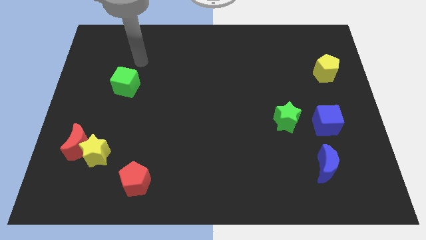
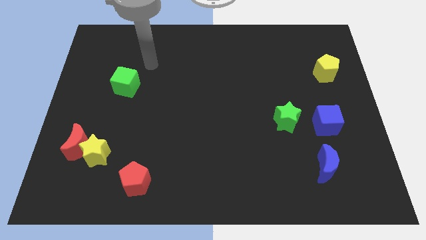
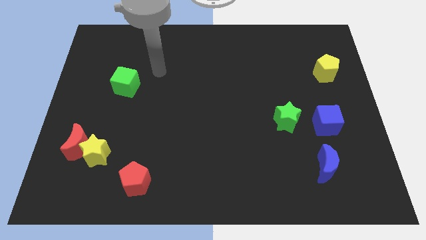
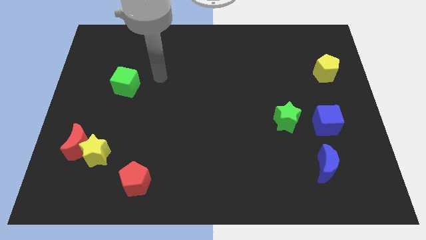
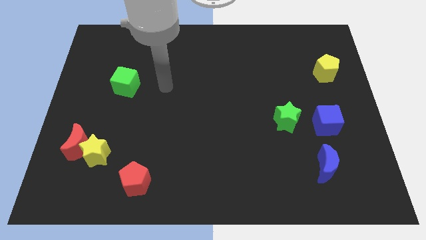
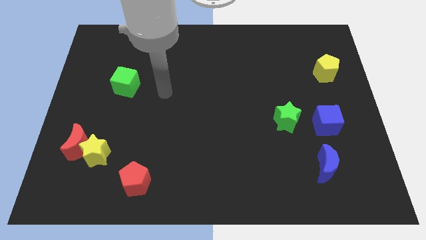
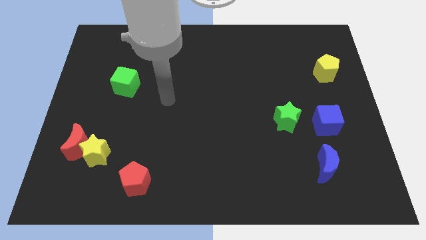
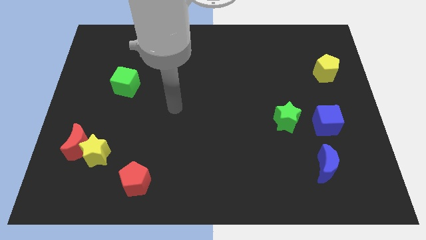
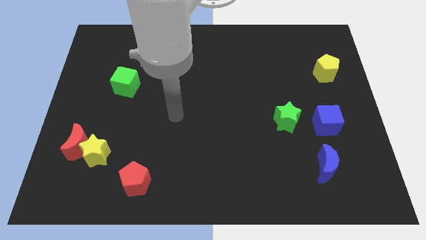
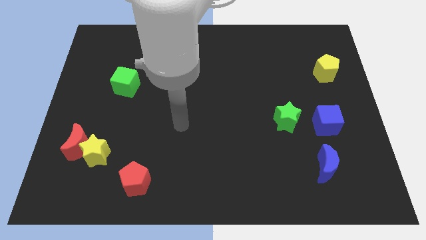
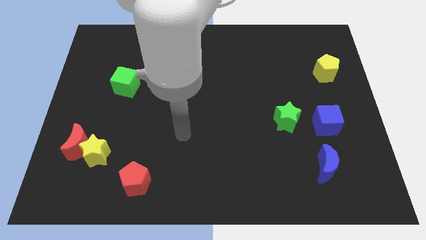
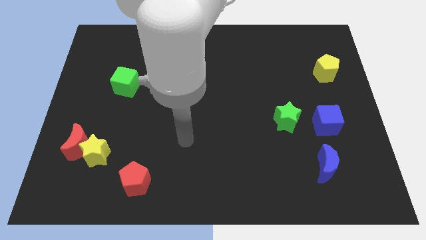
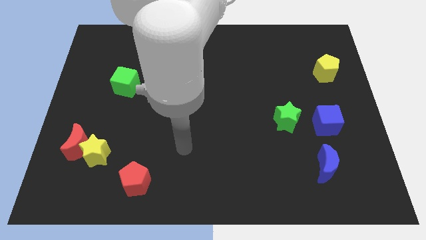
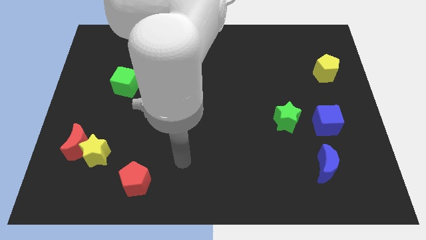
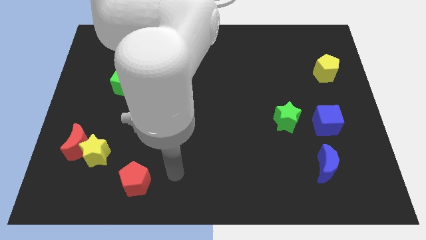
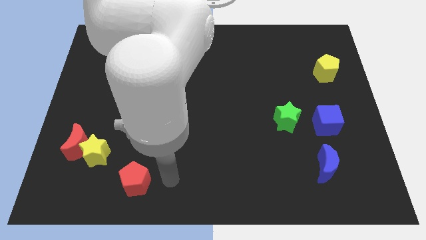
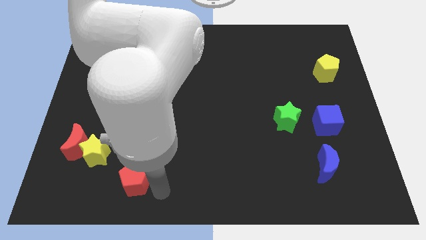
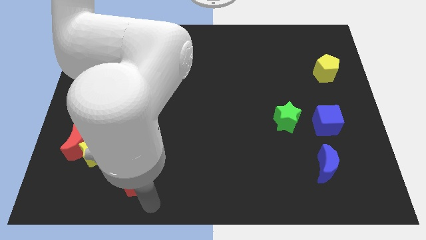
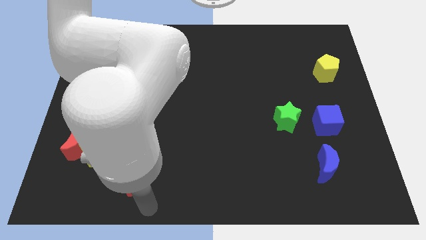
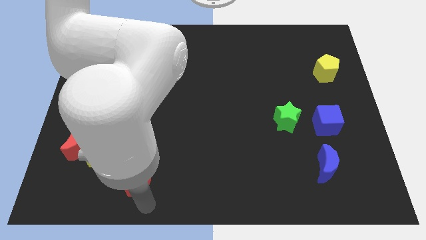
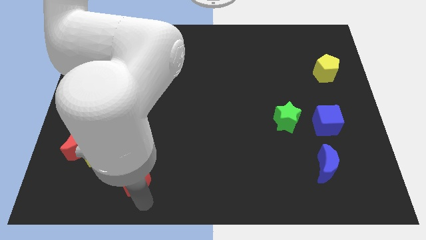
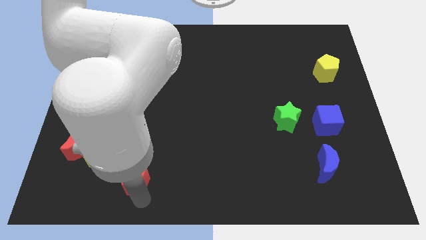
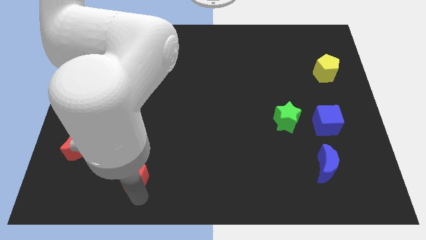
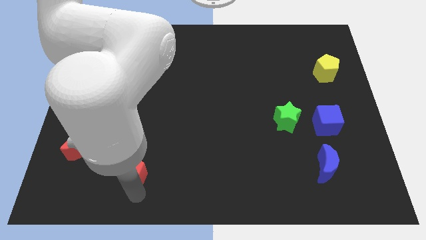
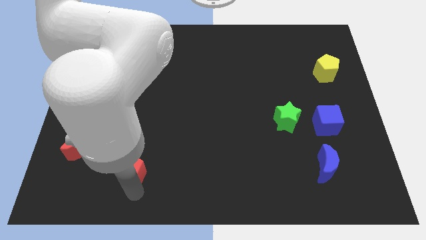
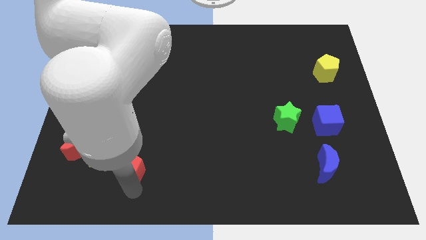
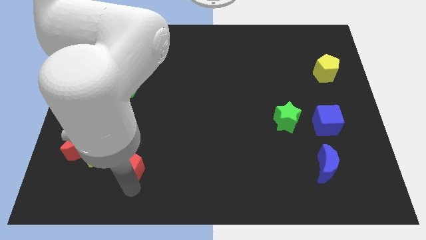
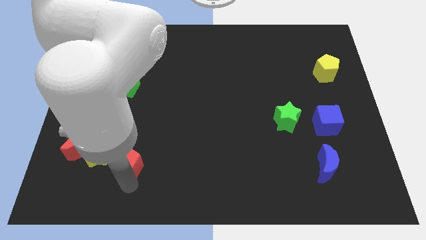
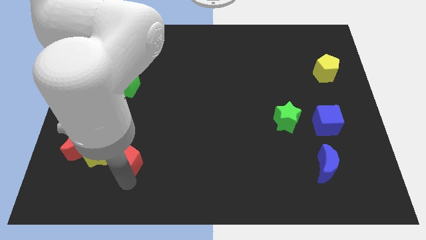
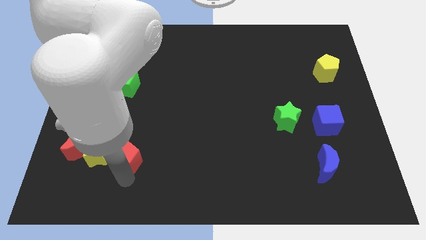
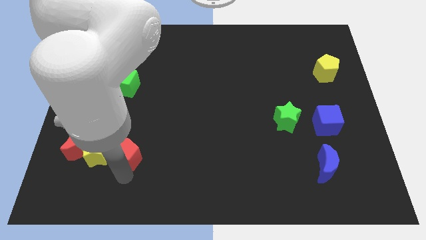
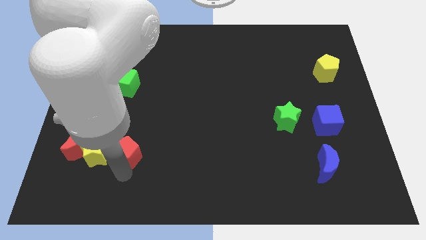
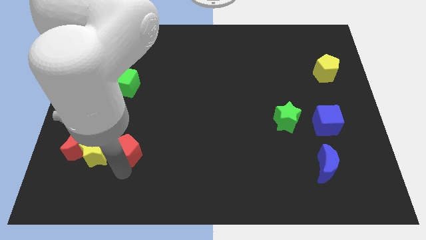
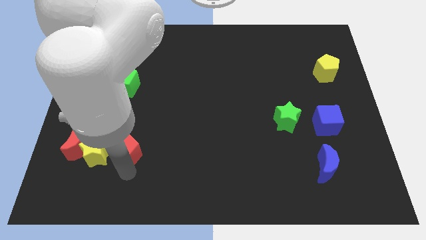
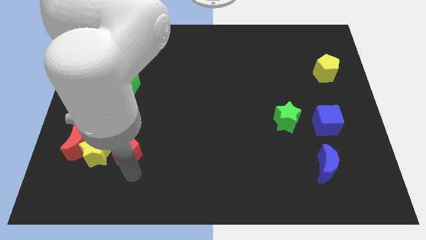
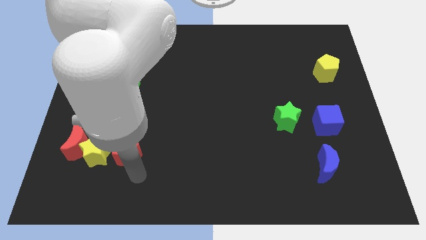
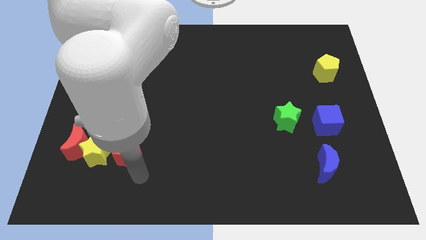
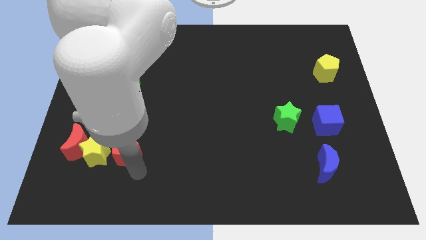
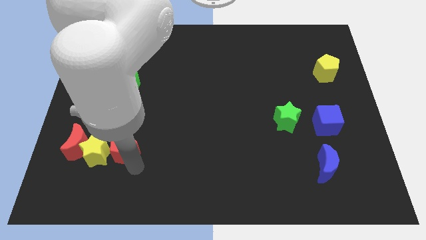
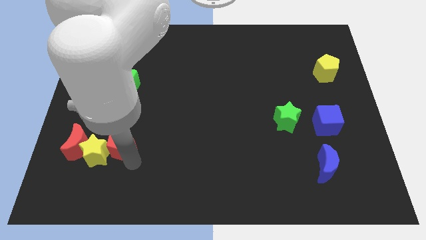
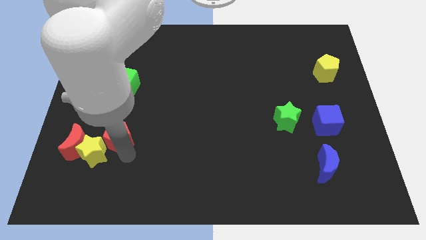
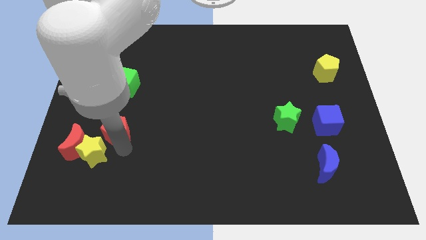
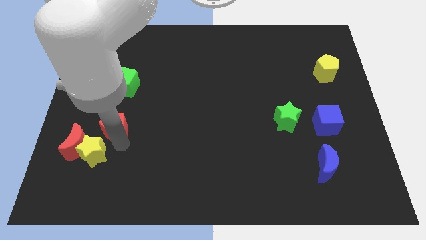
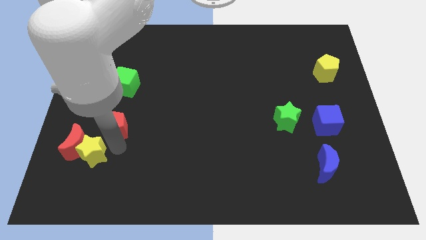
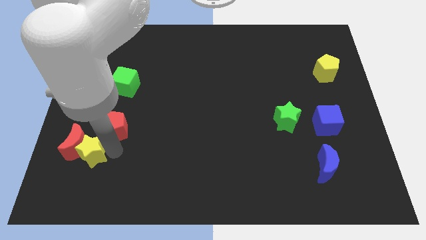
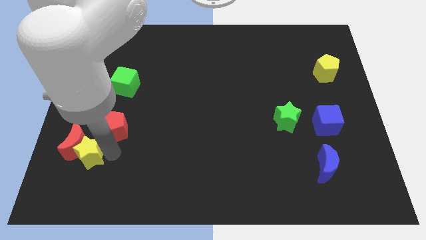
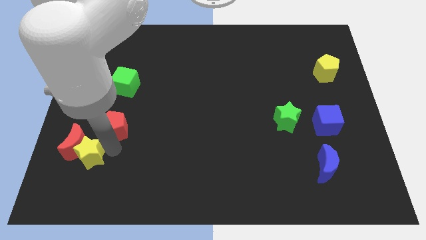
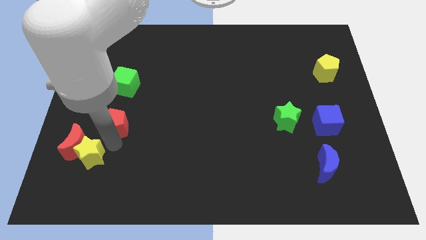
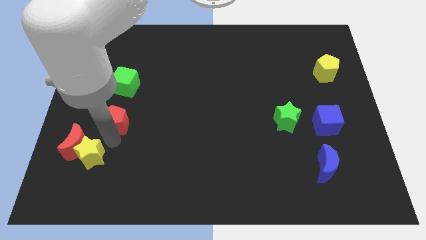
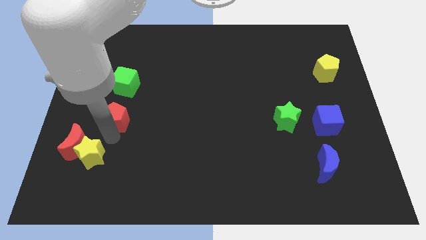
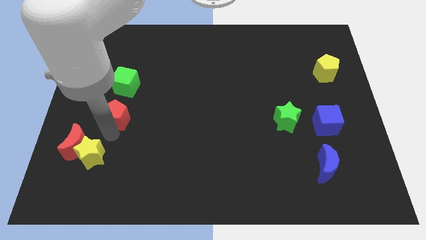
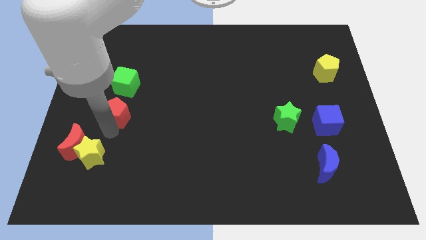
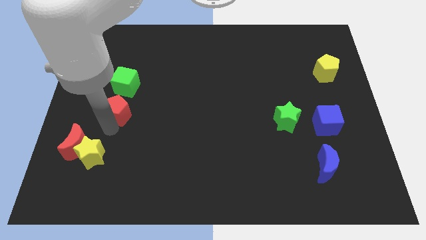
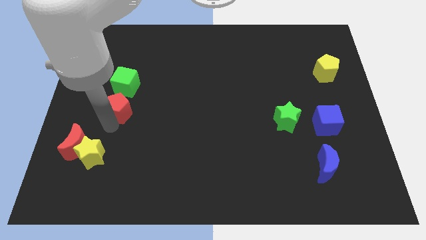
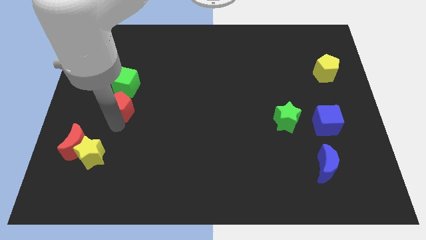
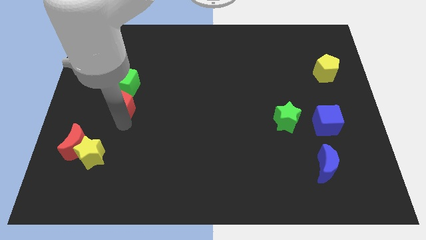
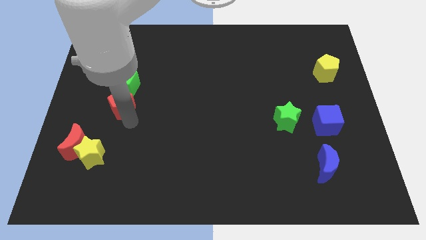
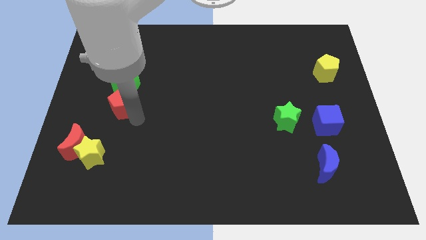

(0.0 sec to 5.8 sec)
push the red pentagon diagonally down and to the left of the green cube
